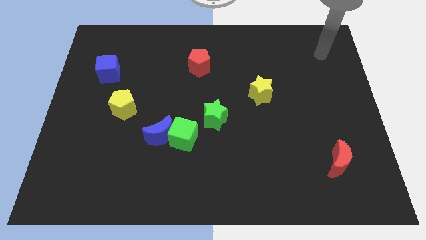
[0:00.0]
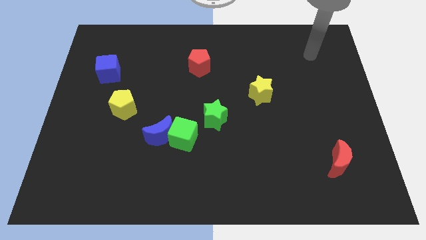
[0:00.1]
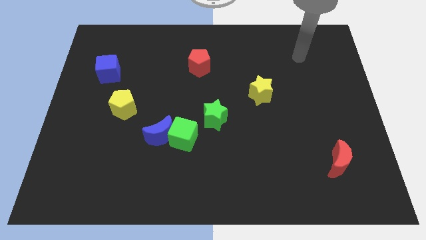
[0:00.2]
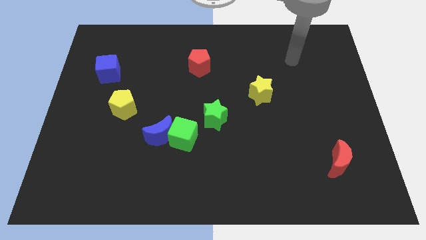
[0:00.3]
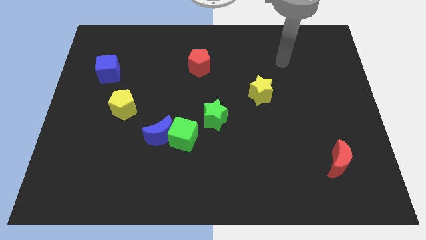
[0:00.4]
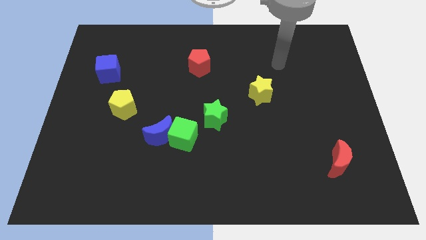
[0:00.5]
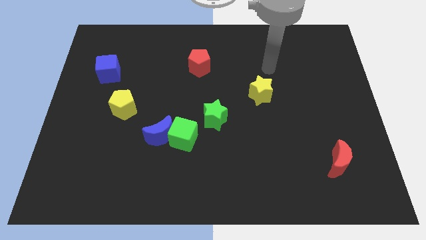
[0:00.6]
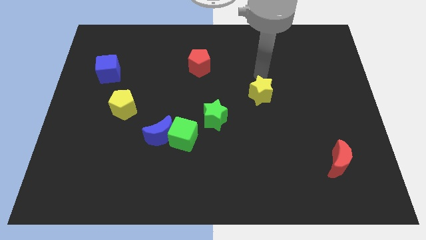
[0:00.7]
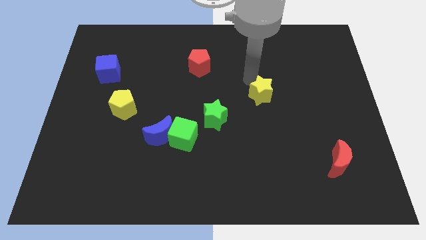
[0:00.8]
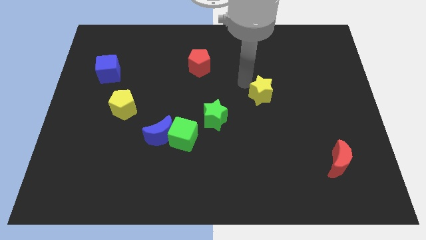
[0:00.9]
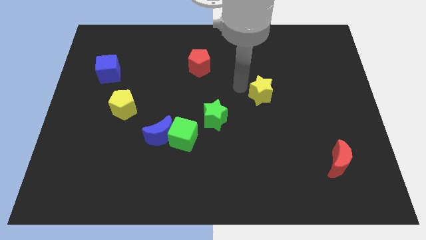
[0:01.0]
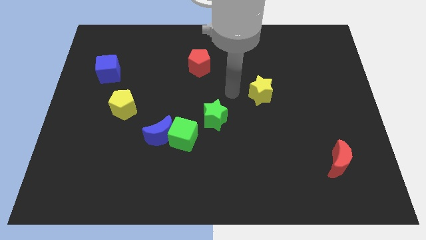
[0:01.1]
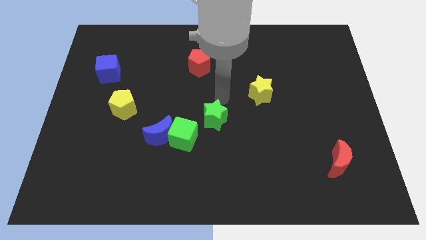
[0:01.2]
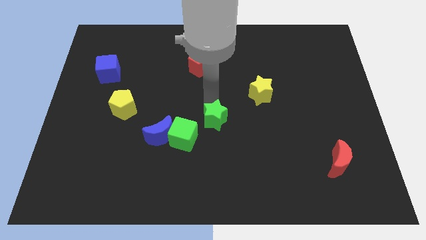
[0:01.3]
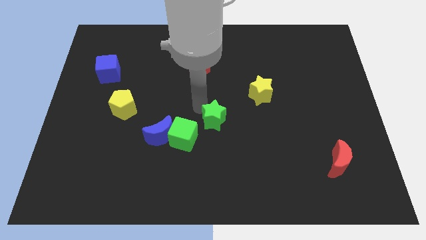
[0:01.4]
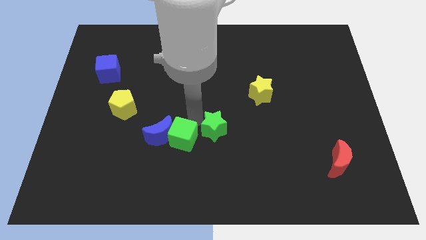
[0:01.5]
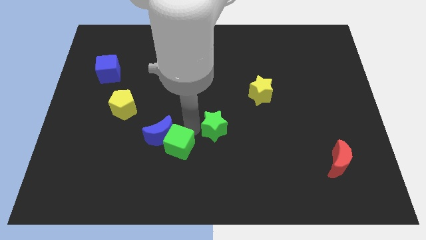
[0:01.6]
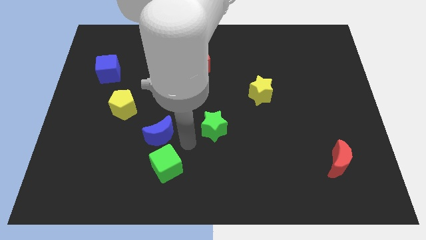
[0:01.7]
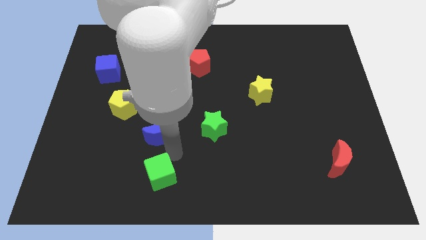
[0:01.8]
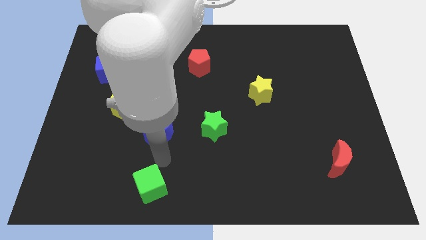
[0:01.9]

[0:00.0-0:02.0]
separate the blue moon from the green cube

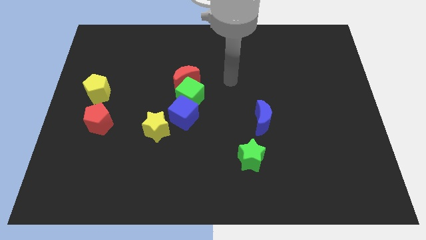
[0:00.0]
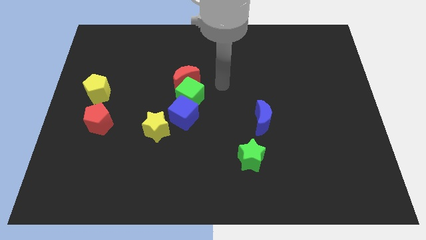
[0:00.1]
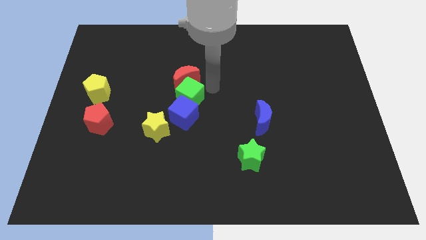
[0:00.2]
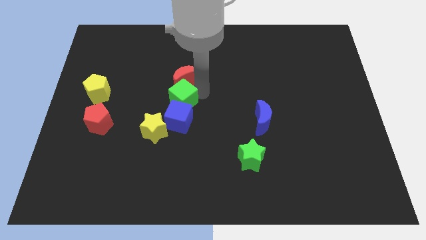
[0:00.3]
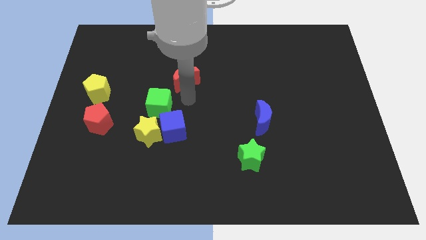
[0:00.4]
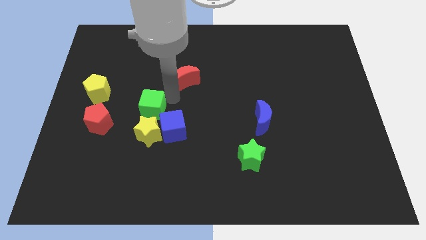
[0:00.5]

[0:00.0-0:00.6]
separate the red moon from the green cube

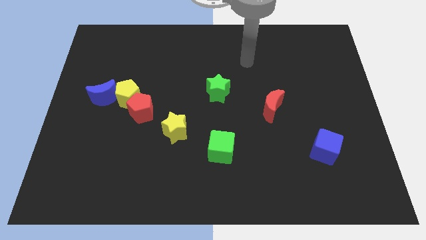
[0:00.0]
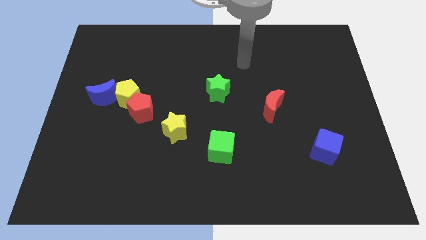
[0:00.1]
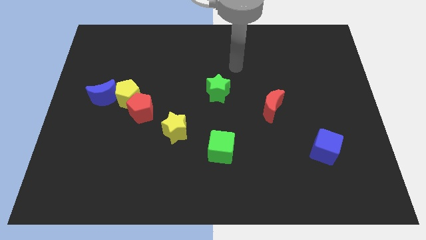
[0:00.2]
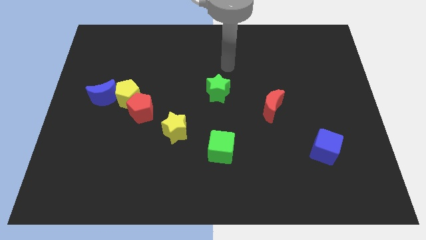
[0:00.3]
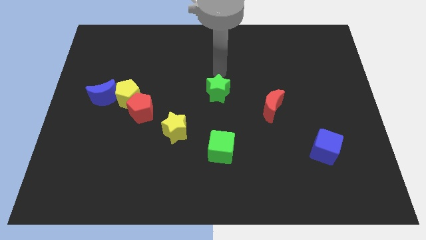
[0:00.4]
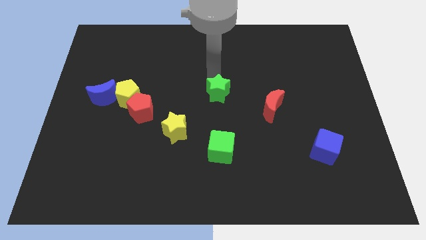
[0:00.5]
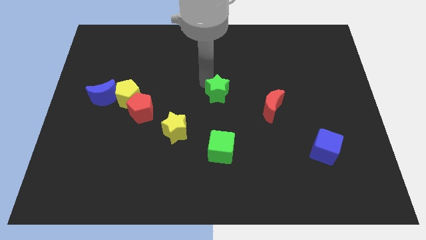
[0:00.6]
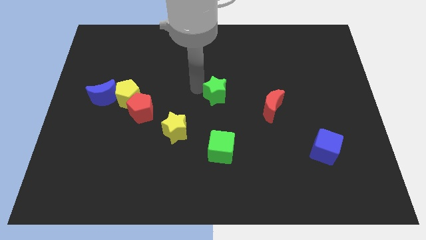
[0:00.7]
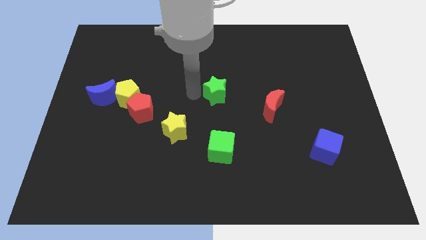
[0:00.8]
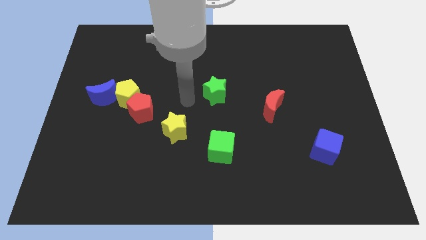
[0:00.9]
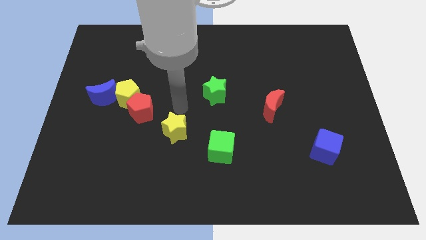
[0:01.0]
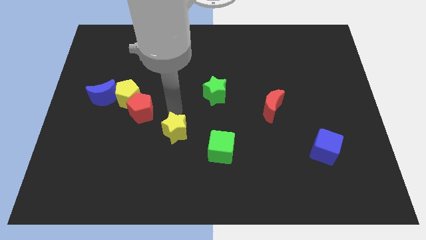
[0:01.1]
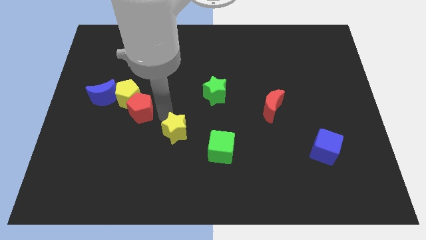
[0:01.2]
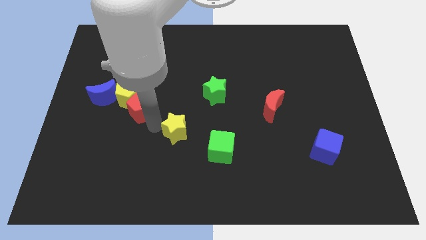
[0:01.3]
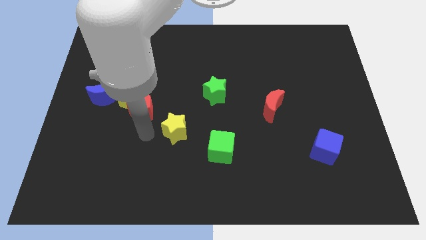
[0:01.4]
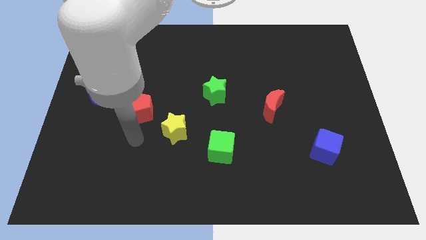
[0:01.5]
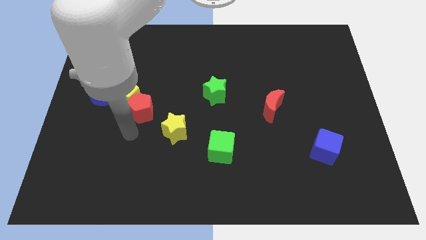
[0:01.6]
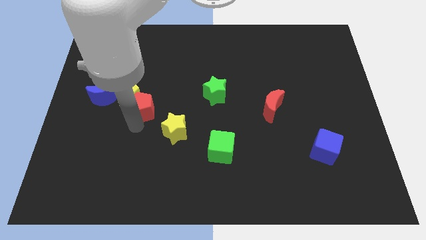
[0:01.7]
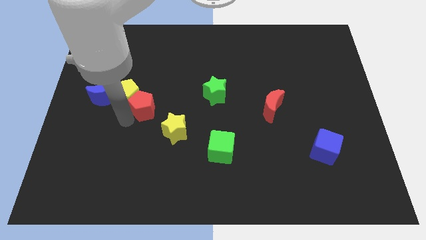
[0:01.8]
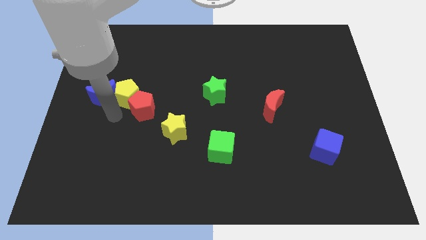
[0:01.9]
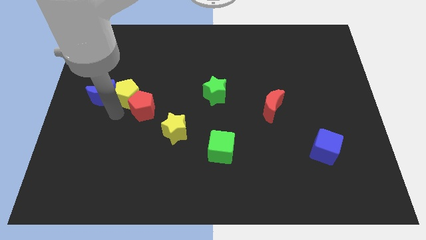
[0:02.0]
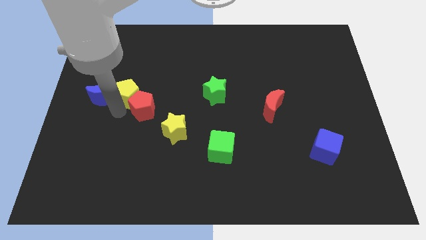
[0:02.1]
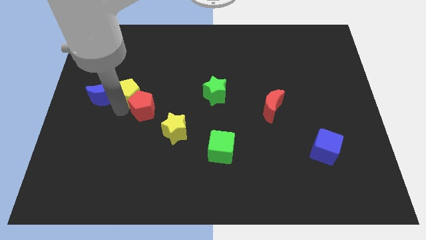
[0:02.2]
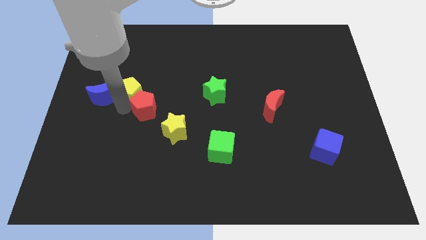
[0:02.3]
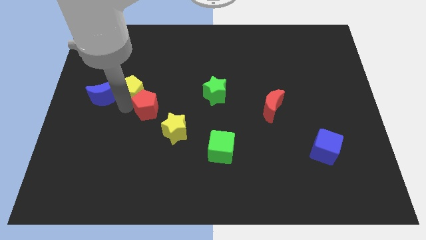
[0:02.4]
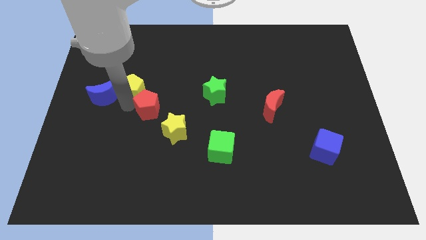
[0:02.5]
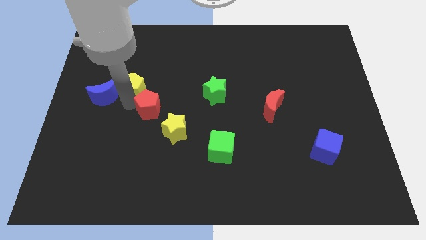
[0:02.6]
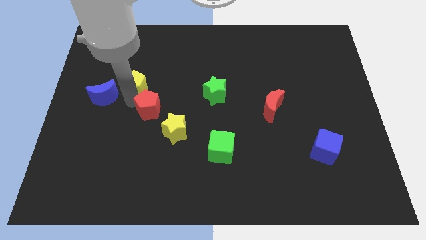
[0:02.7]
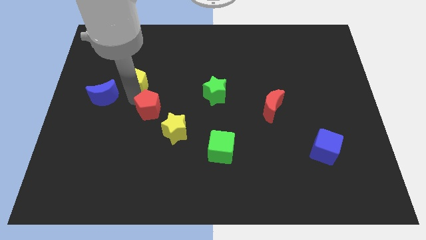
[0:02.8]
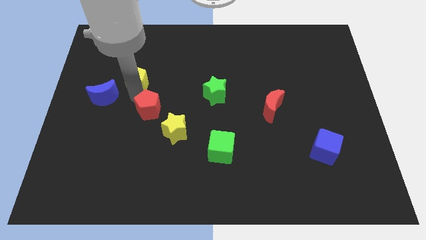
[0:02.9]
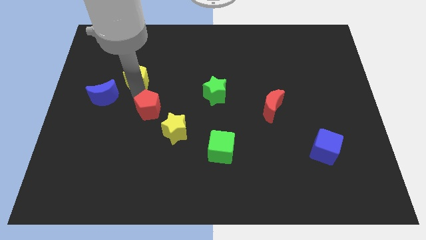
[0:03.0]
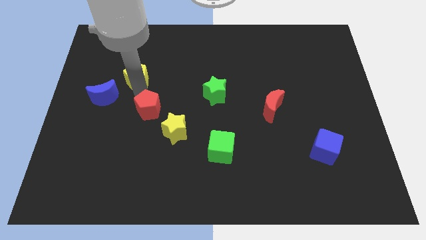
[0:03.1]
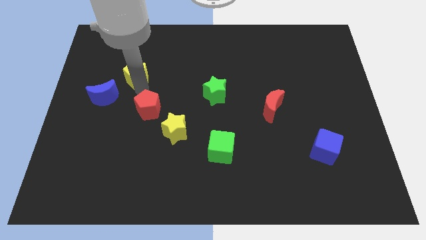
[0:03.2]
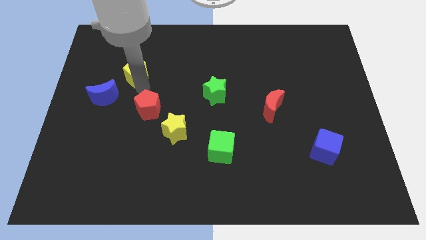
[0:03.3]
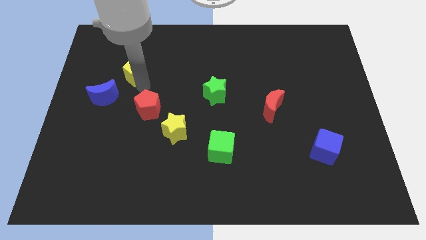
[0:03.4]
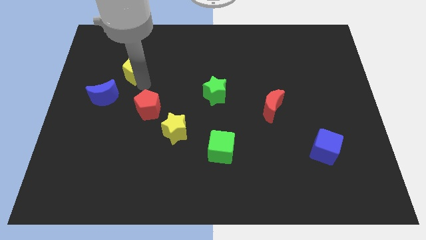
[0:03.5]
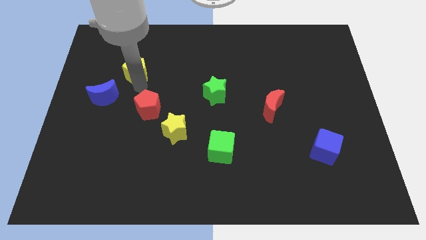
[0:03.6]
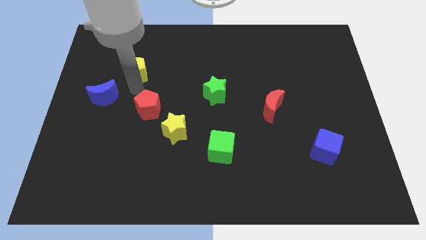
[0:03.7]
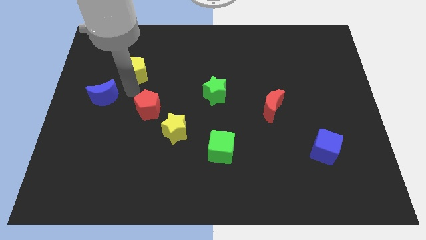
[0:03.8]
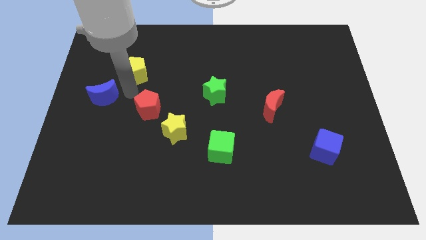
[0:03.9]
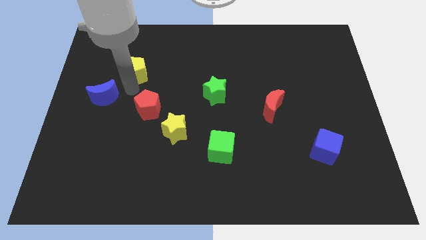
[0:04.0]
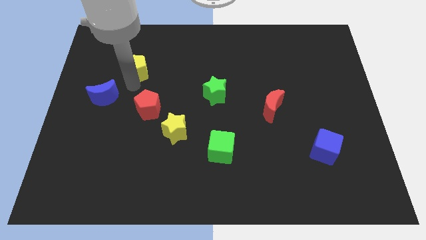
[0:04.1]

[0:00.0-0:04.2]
pull the yellow pentagon apart from the red pentagon and blue moon

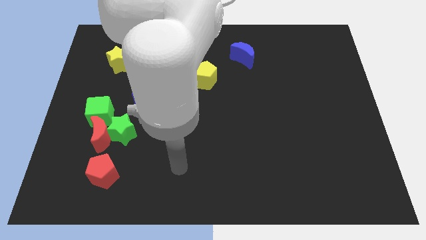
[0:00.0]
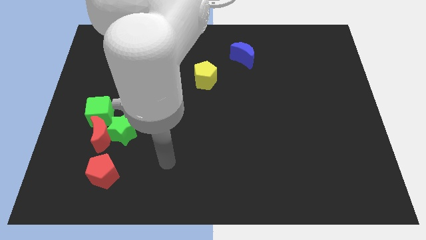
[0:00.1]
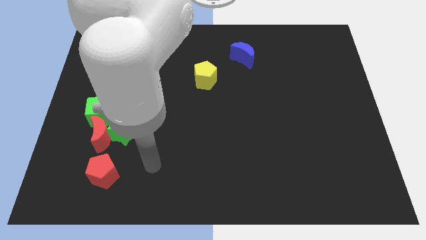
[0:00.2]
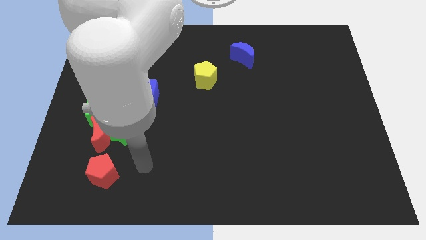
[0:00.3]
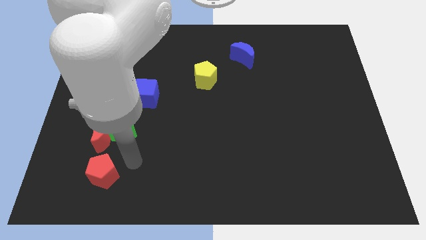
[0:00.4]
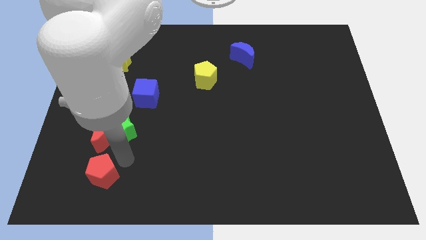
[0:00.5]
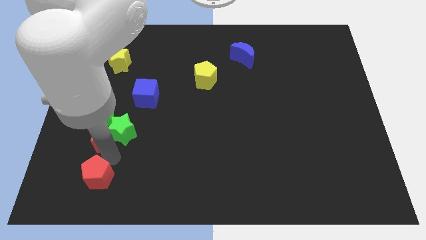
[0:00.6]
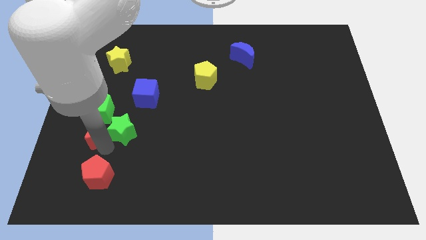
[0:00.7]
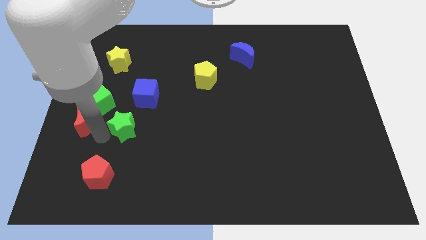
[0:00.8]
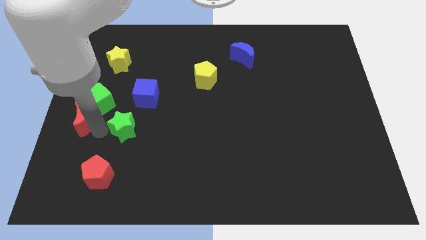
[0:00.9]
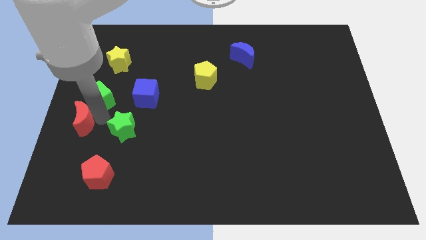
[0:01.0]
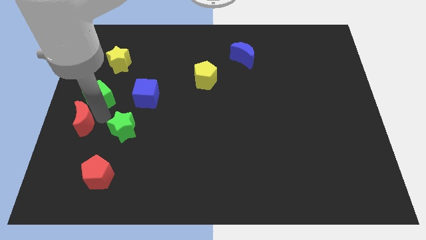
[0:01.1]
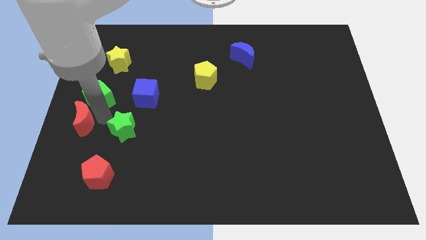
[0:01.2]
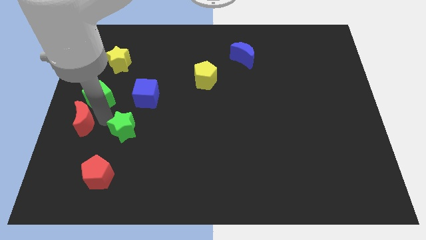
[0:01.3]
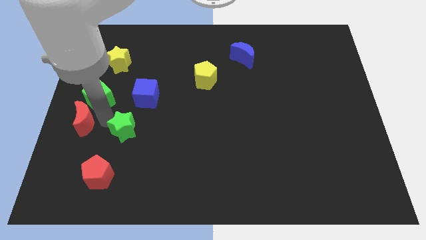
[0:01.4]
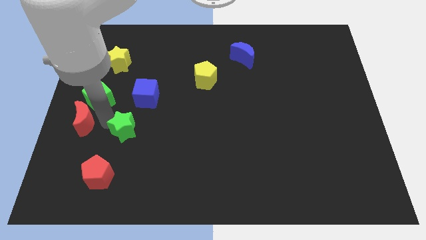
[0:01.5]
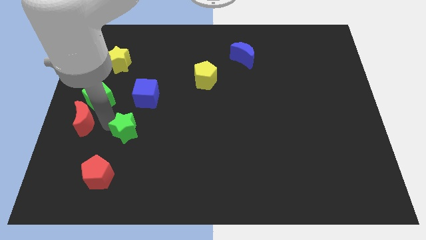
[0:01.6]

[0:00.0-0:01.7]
separate the green star from the red moon and green cube

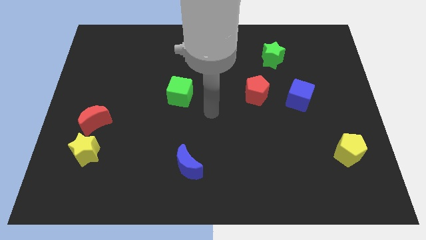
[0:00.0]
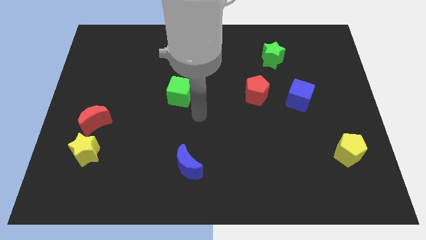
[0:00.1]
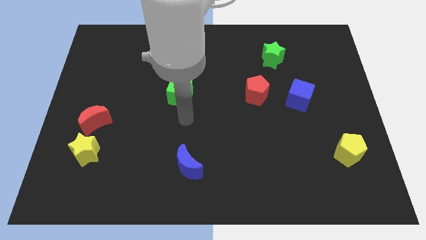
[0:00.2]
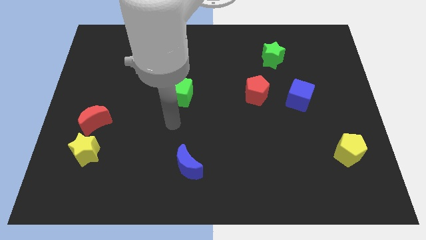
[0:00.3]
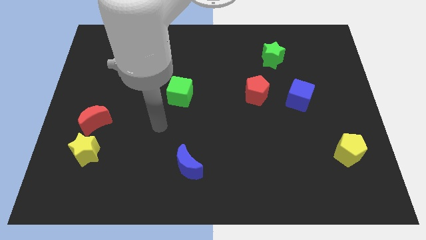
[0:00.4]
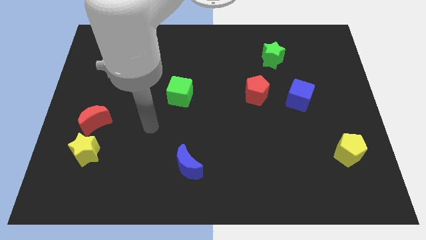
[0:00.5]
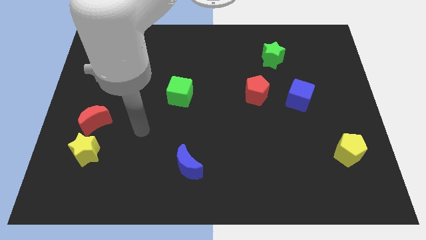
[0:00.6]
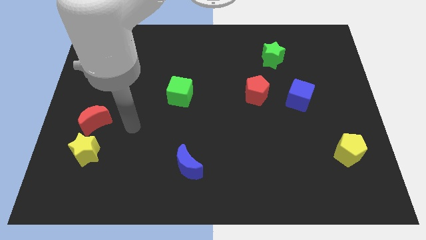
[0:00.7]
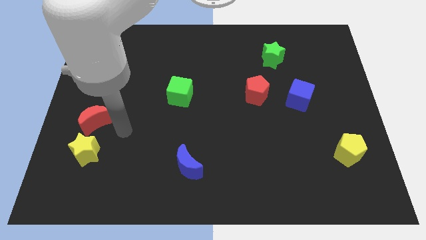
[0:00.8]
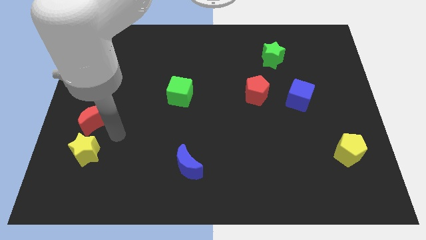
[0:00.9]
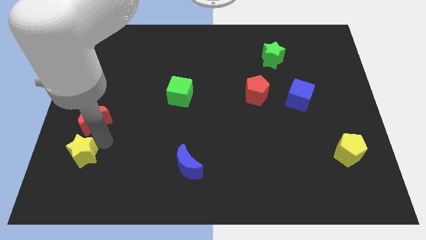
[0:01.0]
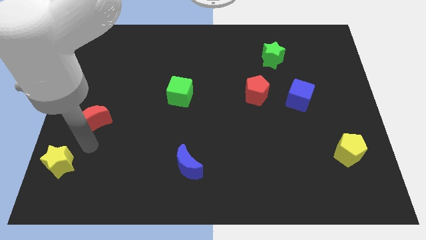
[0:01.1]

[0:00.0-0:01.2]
separate the red moon from the yellow star
